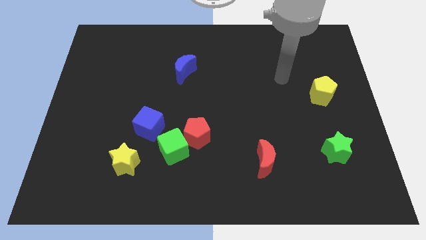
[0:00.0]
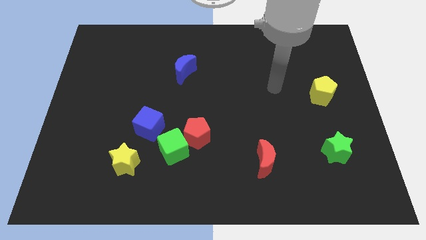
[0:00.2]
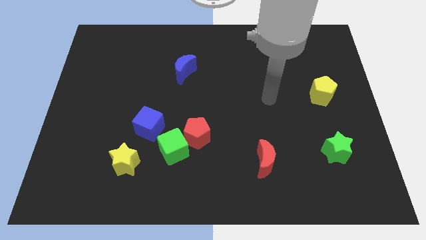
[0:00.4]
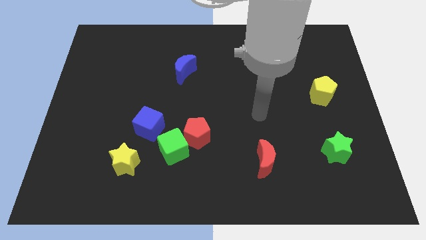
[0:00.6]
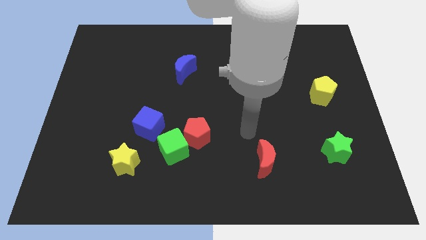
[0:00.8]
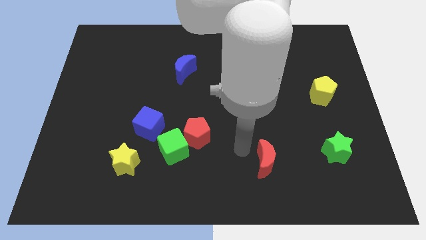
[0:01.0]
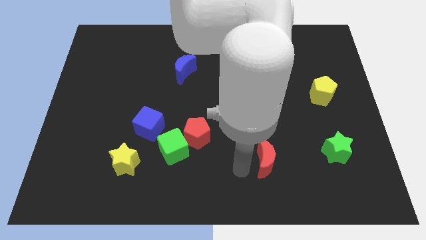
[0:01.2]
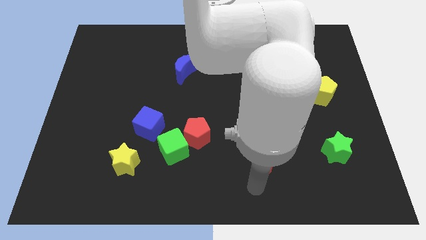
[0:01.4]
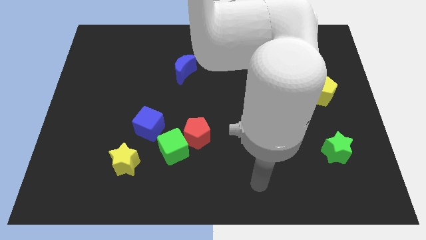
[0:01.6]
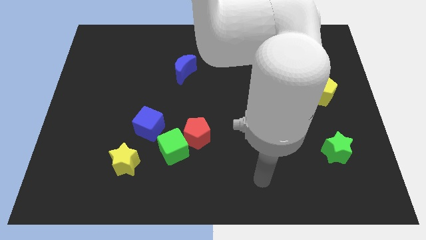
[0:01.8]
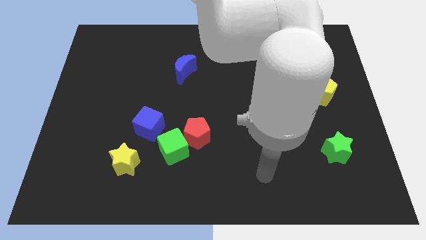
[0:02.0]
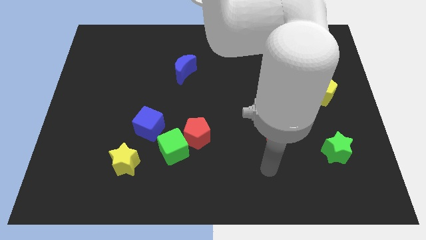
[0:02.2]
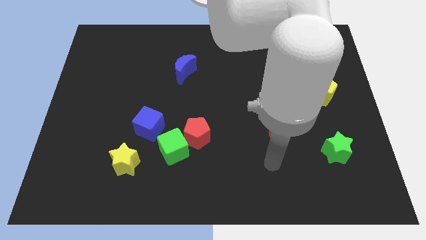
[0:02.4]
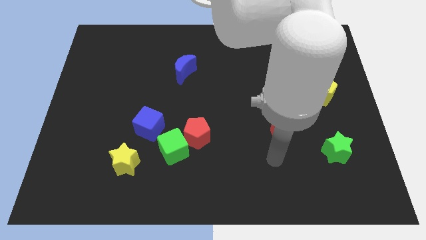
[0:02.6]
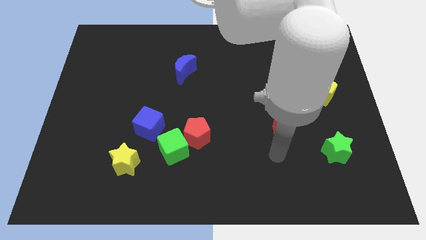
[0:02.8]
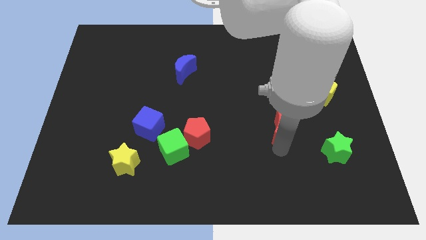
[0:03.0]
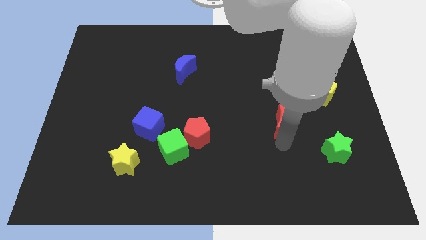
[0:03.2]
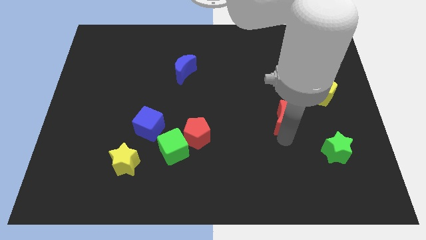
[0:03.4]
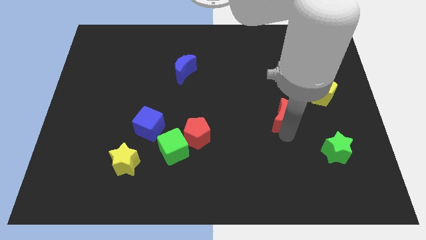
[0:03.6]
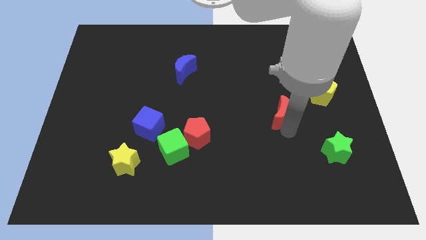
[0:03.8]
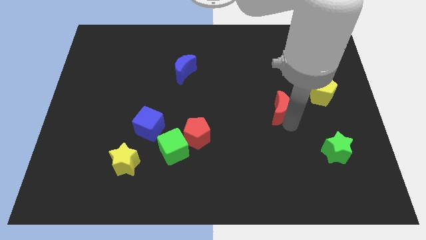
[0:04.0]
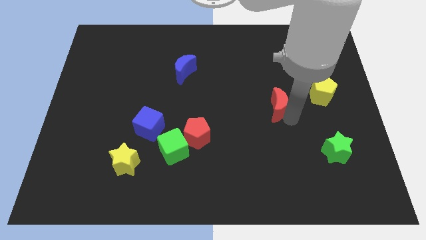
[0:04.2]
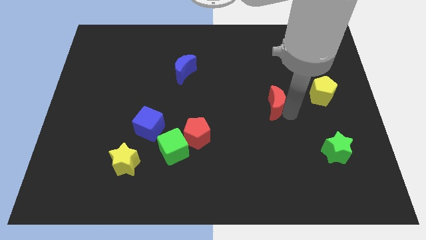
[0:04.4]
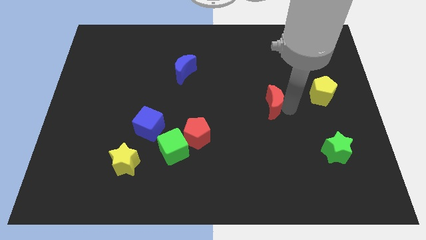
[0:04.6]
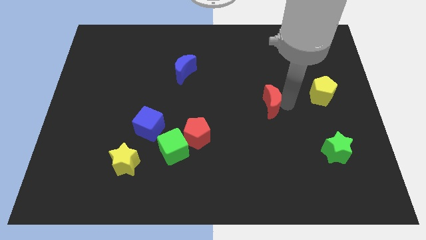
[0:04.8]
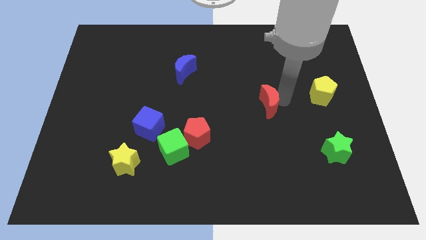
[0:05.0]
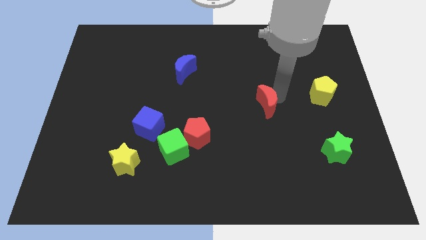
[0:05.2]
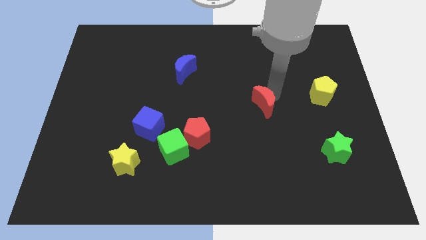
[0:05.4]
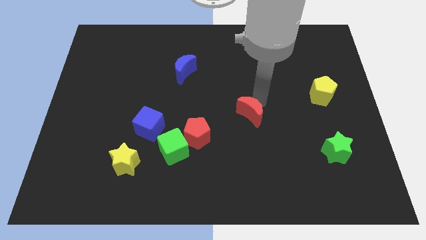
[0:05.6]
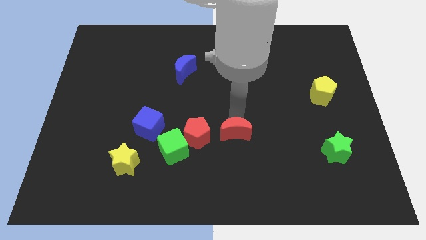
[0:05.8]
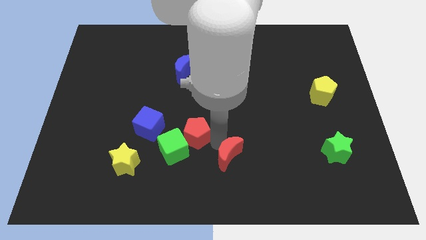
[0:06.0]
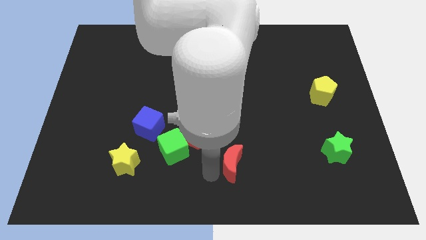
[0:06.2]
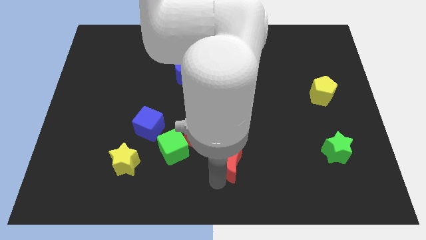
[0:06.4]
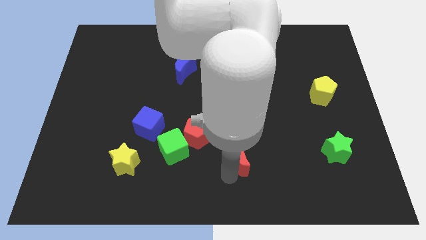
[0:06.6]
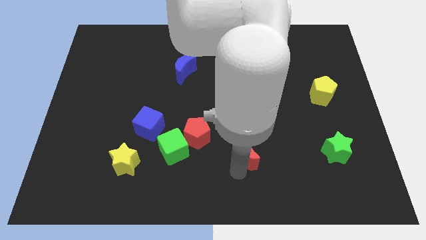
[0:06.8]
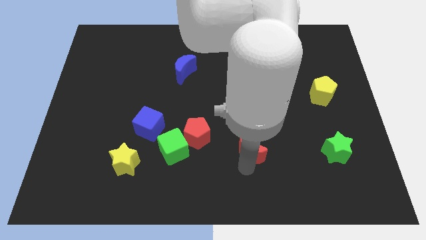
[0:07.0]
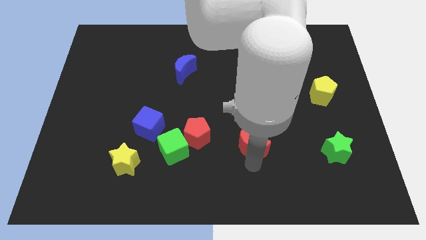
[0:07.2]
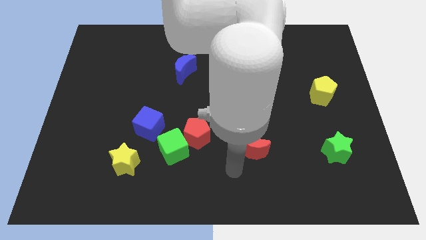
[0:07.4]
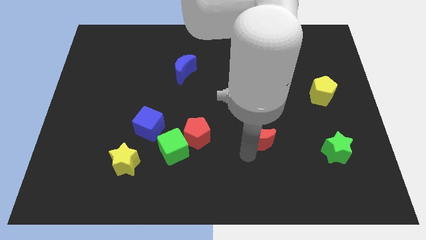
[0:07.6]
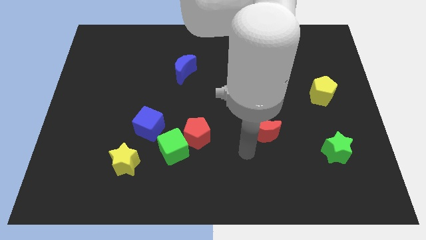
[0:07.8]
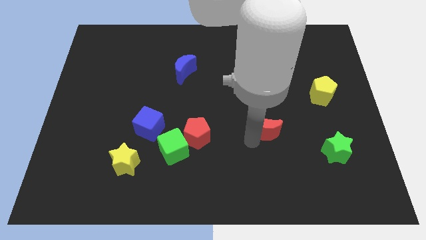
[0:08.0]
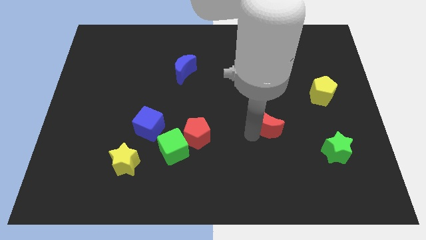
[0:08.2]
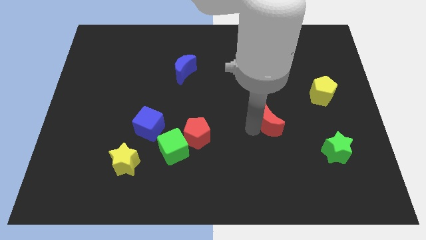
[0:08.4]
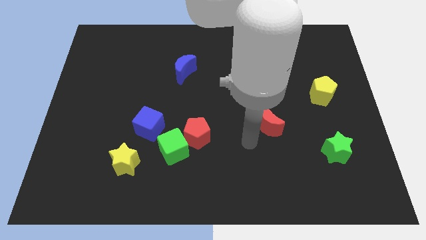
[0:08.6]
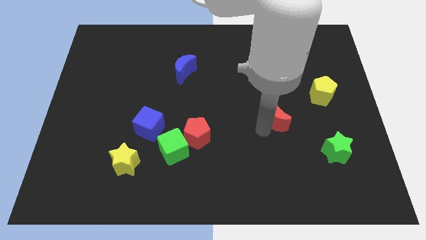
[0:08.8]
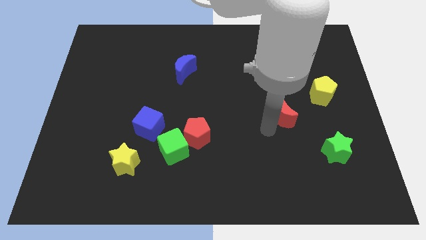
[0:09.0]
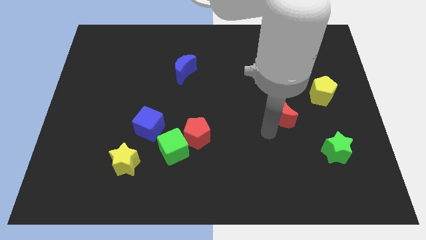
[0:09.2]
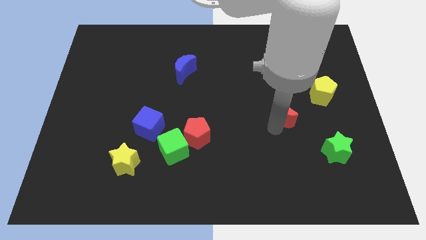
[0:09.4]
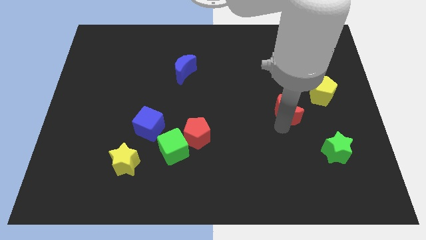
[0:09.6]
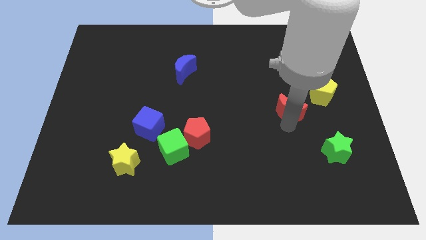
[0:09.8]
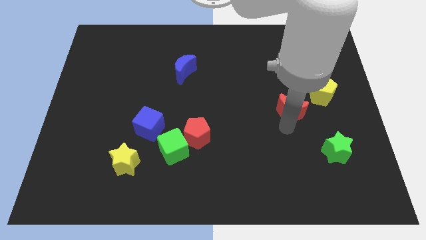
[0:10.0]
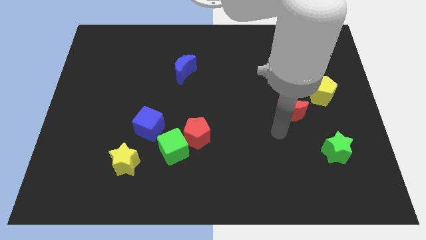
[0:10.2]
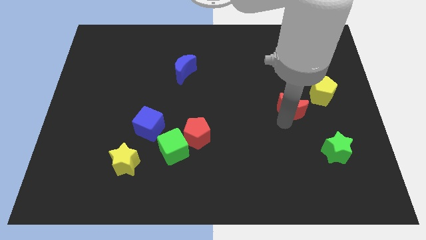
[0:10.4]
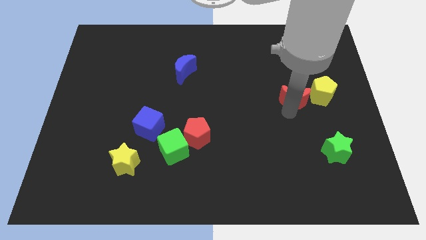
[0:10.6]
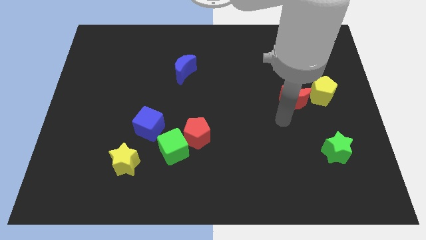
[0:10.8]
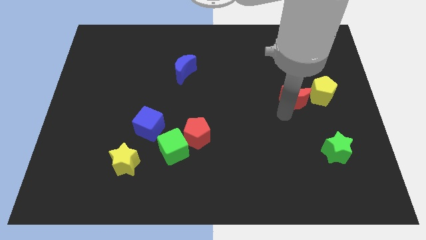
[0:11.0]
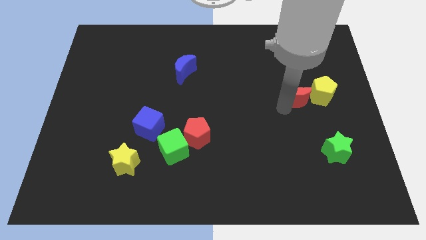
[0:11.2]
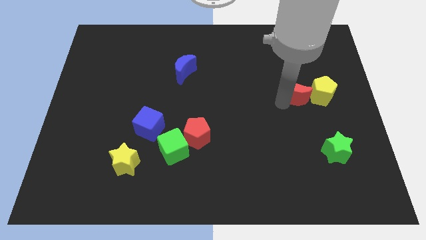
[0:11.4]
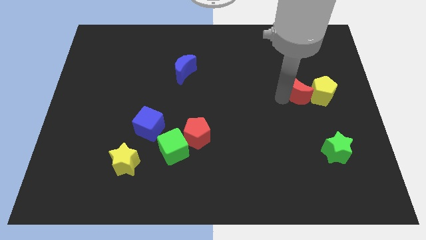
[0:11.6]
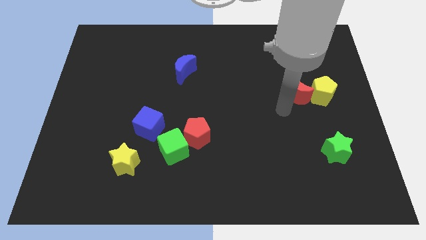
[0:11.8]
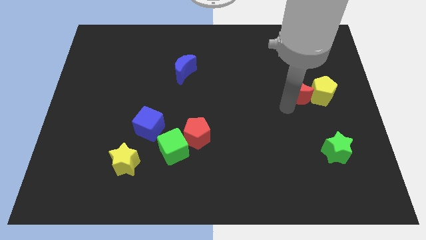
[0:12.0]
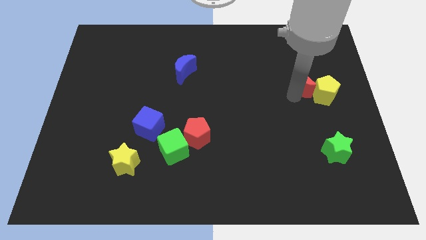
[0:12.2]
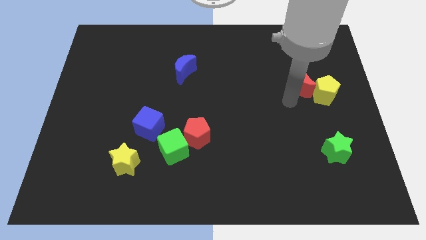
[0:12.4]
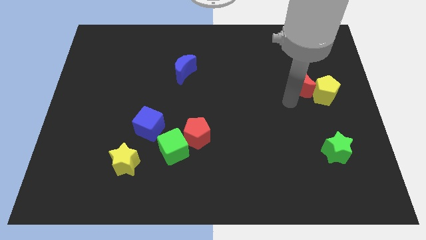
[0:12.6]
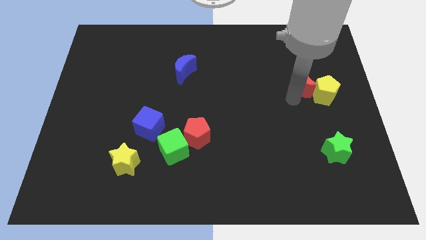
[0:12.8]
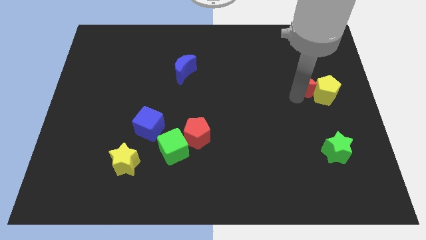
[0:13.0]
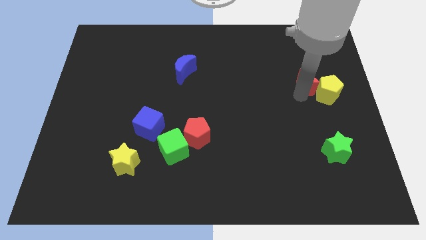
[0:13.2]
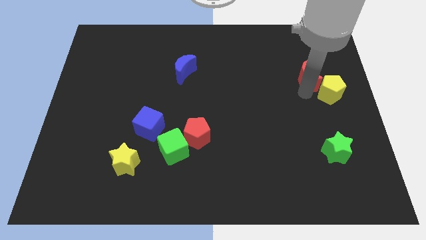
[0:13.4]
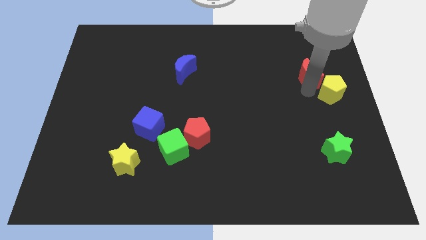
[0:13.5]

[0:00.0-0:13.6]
slide the red moon to the top side of the yellow pentagon

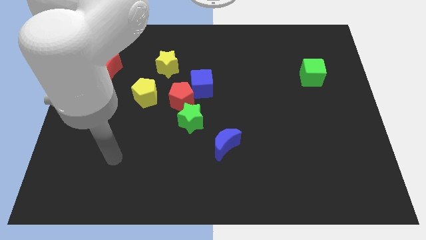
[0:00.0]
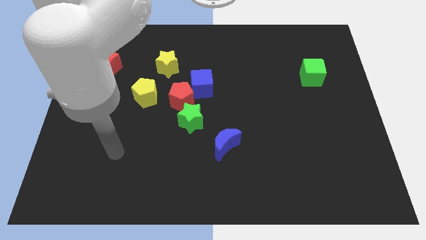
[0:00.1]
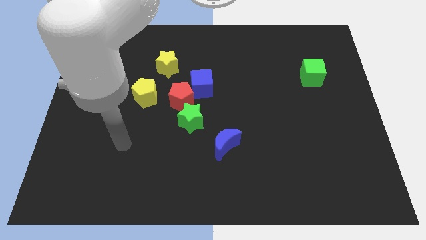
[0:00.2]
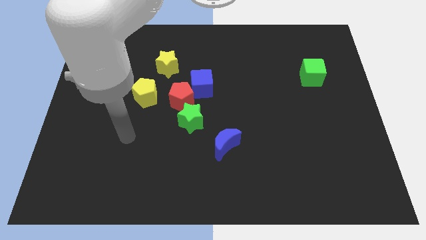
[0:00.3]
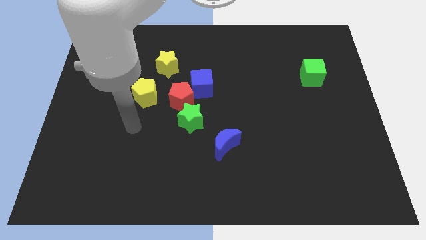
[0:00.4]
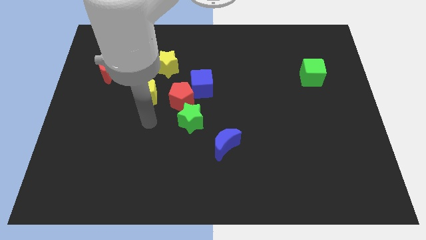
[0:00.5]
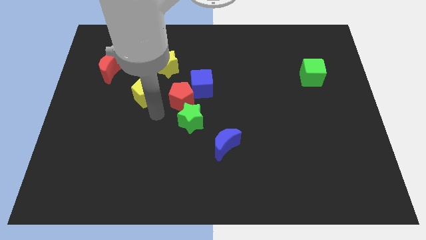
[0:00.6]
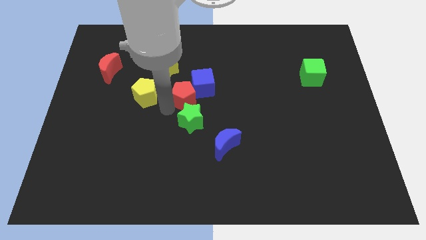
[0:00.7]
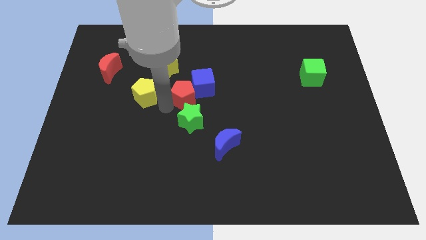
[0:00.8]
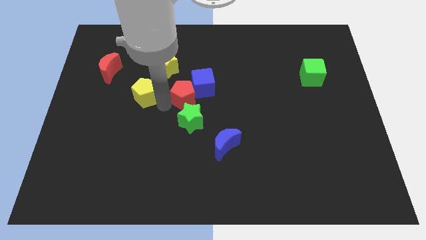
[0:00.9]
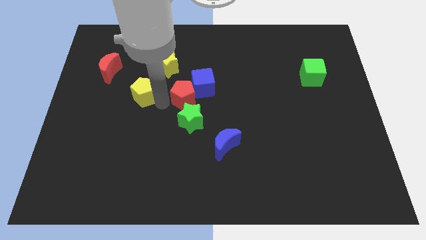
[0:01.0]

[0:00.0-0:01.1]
slide the yellow pentagon to the bottom right of the red moon
